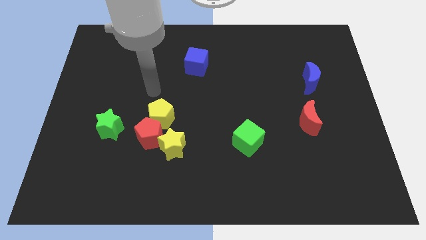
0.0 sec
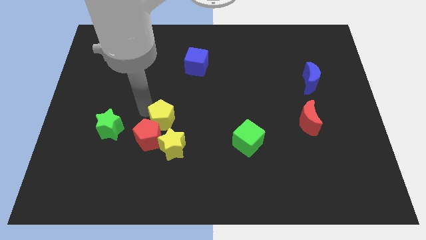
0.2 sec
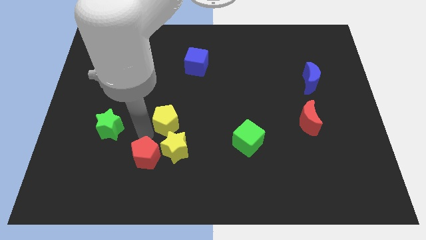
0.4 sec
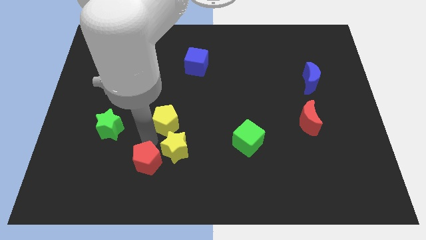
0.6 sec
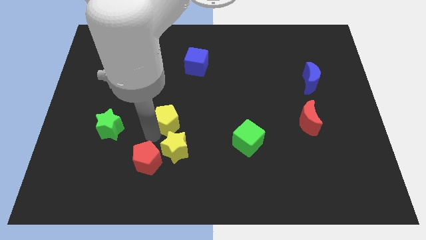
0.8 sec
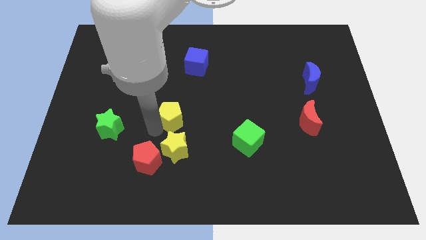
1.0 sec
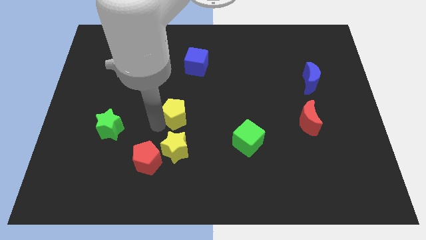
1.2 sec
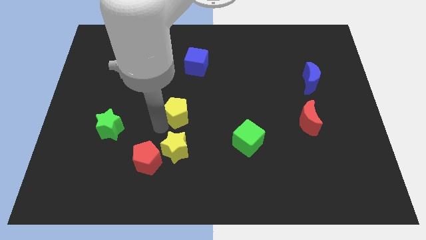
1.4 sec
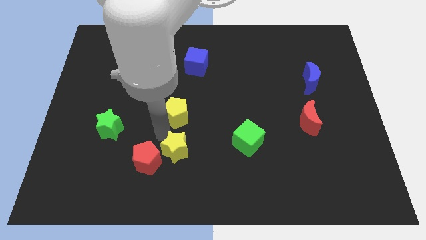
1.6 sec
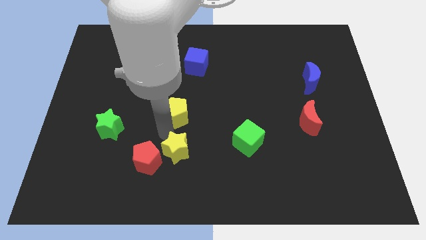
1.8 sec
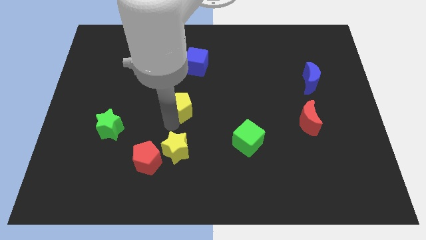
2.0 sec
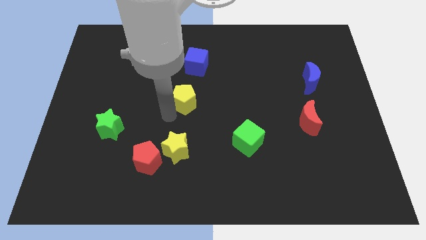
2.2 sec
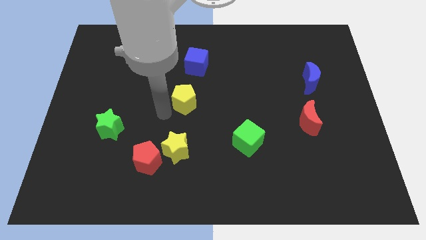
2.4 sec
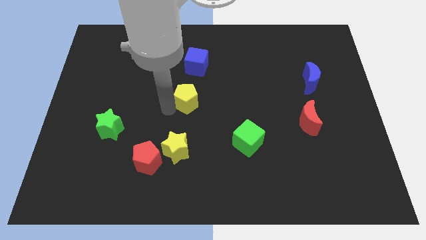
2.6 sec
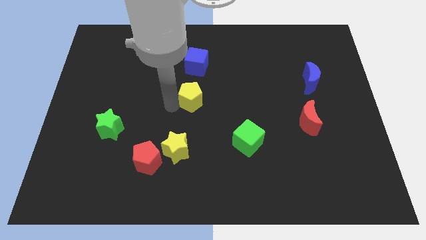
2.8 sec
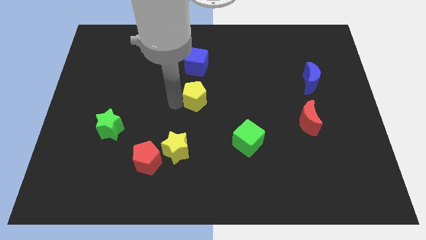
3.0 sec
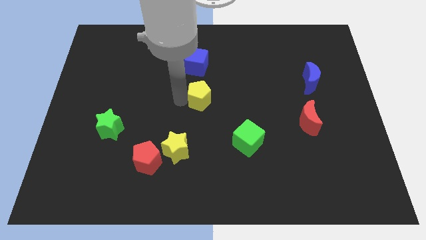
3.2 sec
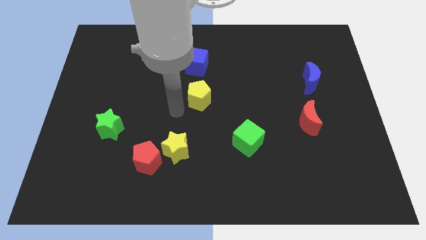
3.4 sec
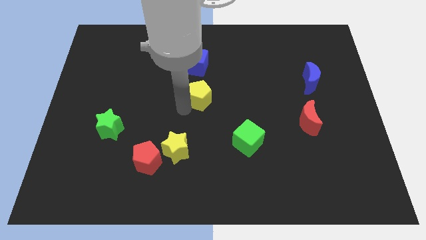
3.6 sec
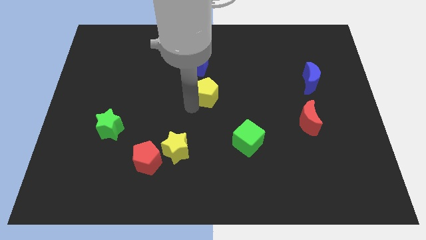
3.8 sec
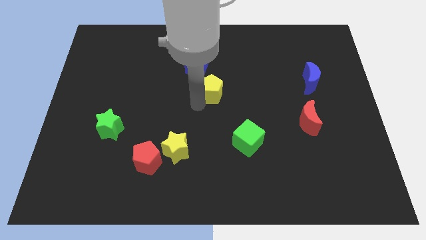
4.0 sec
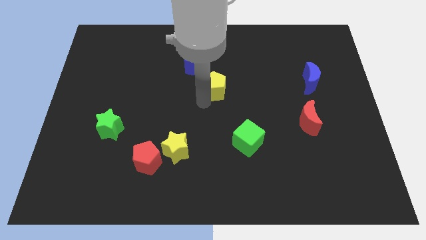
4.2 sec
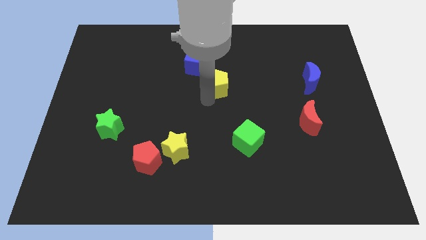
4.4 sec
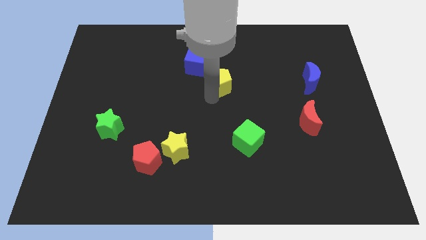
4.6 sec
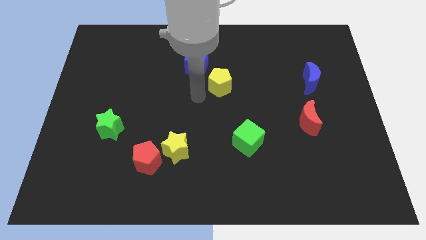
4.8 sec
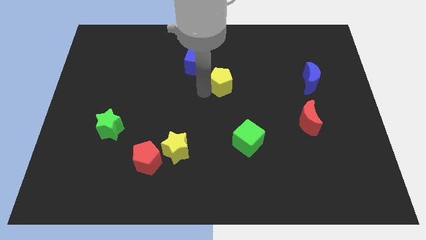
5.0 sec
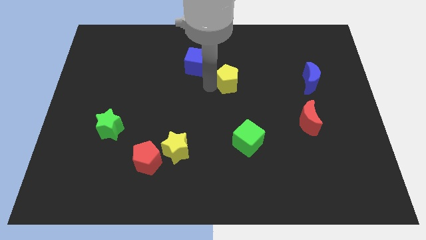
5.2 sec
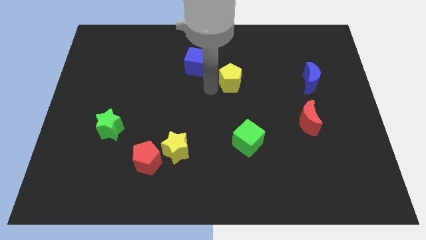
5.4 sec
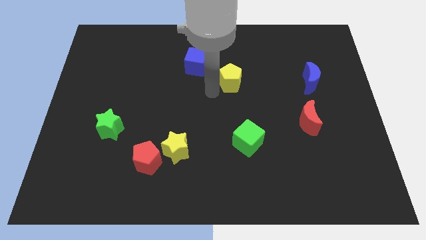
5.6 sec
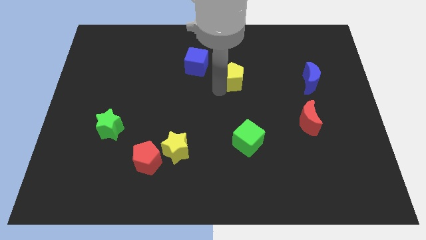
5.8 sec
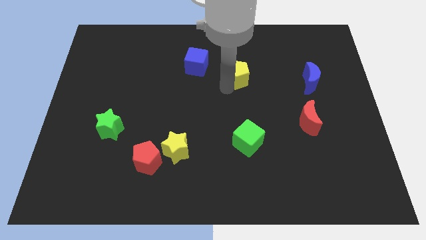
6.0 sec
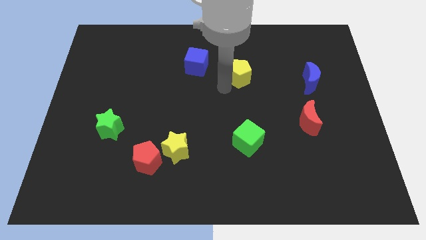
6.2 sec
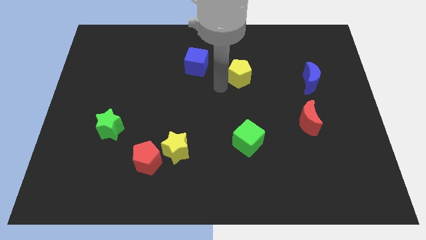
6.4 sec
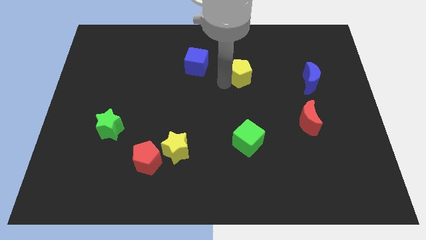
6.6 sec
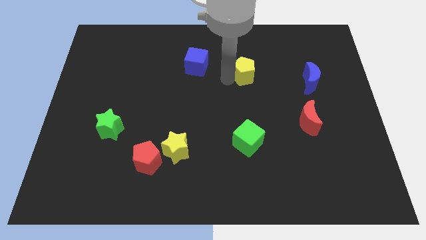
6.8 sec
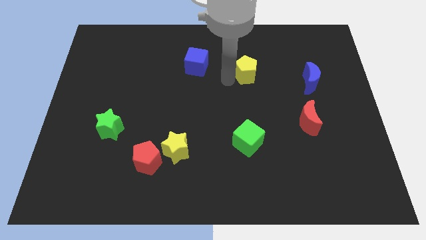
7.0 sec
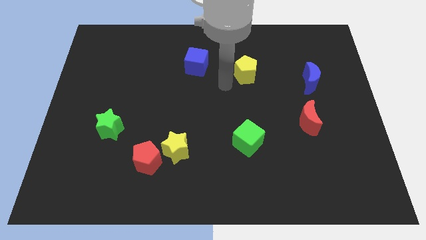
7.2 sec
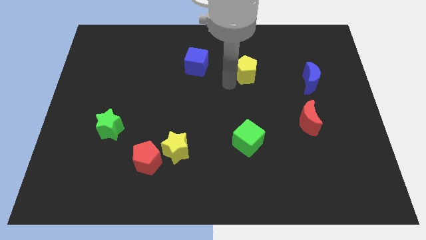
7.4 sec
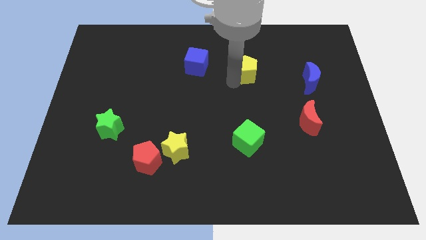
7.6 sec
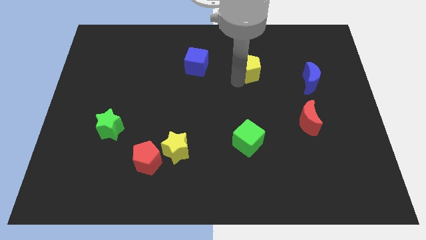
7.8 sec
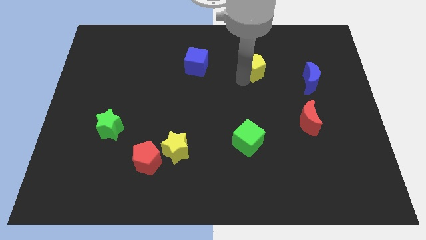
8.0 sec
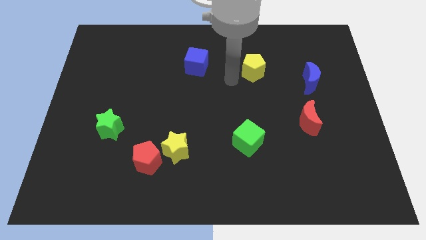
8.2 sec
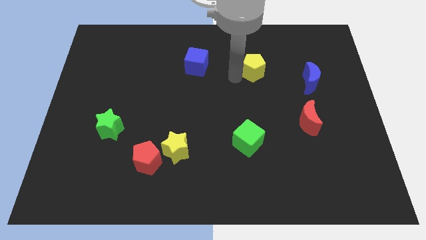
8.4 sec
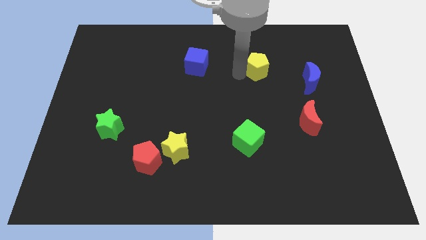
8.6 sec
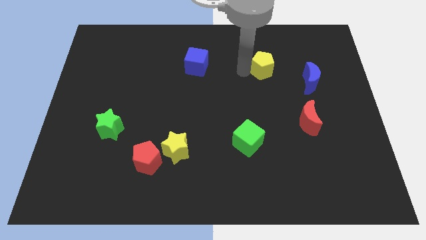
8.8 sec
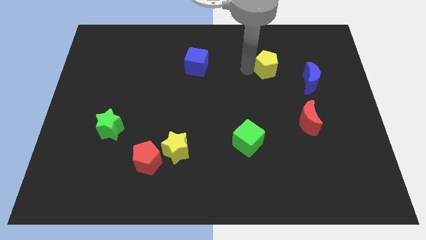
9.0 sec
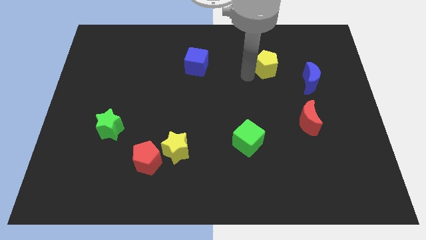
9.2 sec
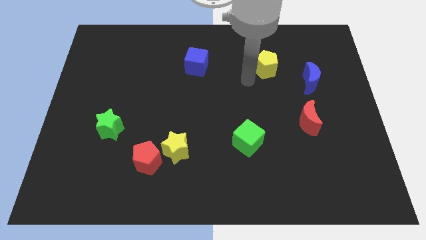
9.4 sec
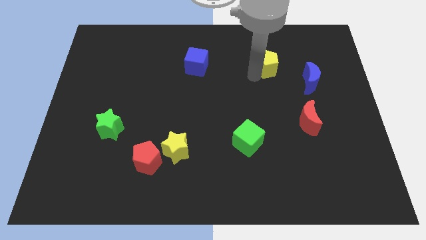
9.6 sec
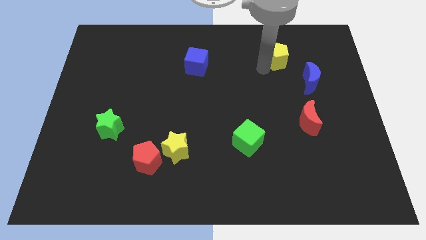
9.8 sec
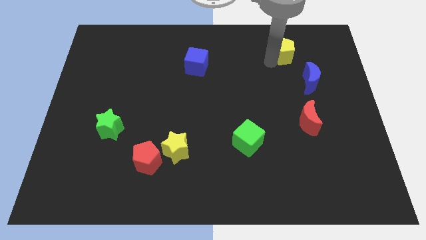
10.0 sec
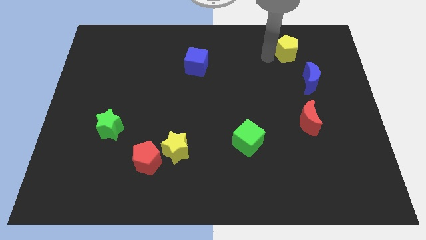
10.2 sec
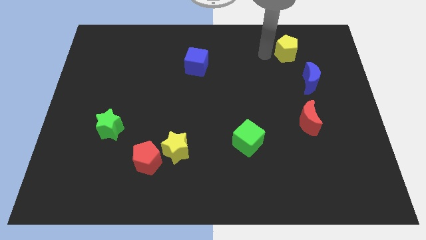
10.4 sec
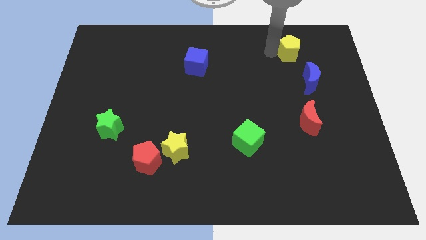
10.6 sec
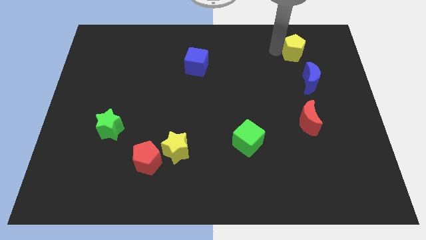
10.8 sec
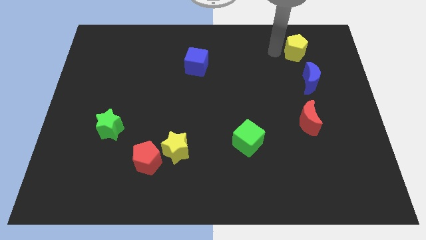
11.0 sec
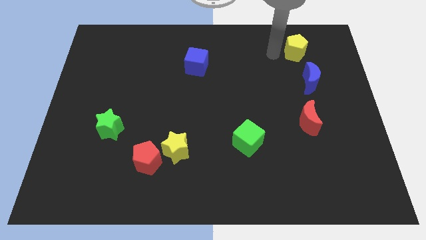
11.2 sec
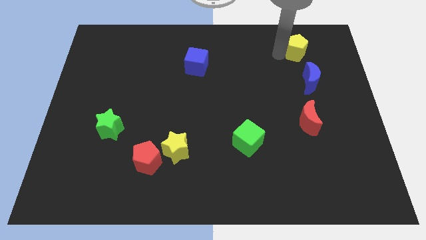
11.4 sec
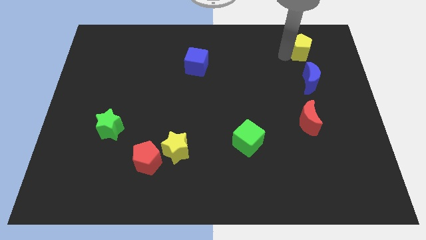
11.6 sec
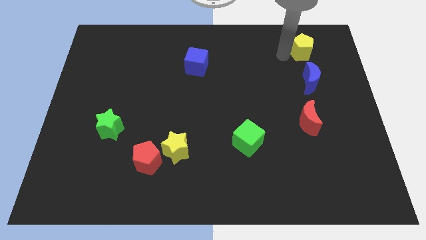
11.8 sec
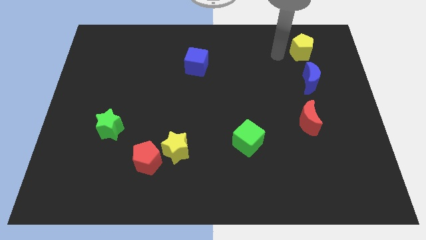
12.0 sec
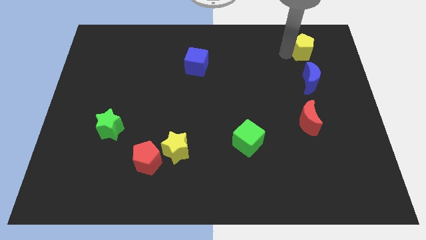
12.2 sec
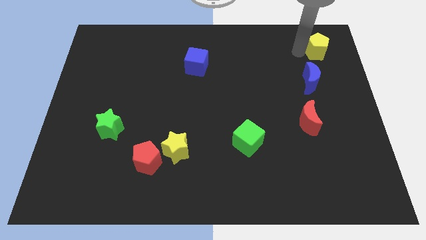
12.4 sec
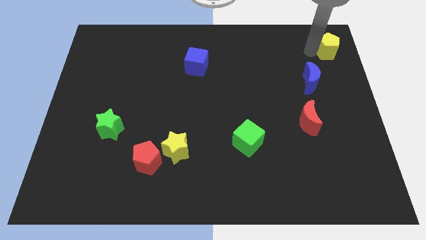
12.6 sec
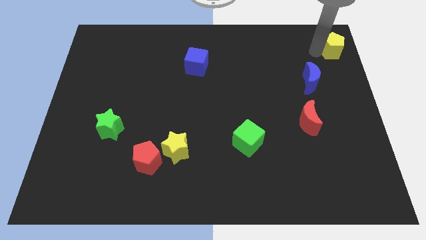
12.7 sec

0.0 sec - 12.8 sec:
move the yellow pentagon to the top right of the board
